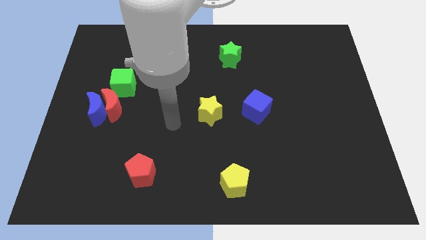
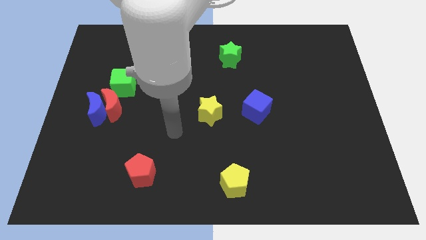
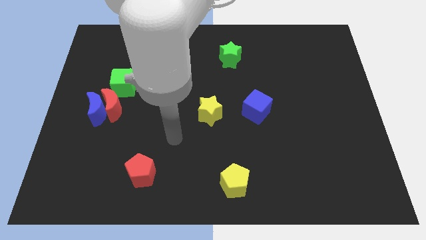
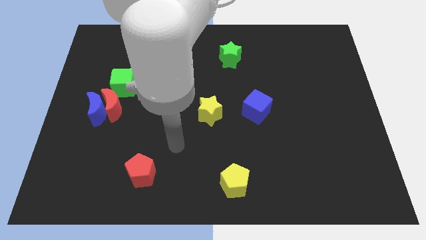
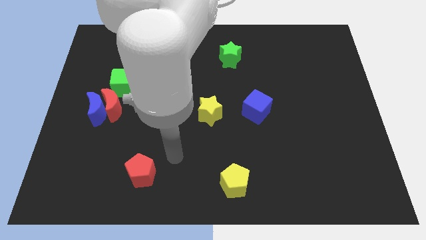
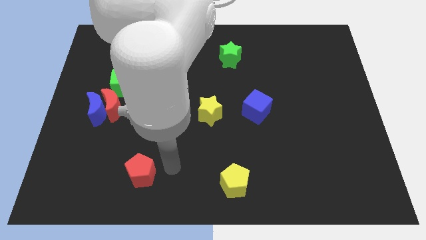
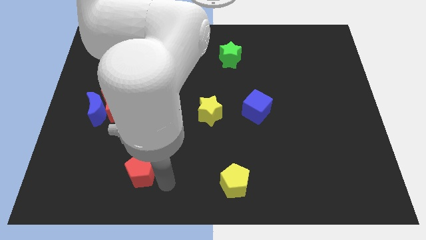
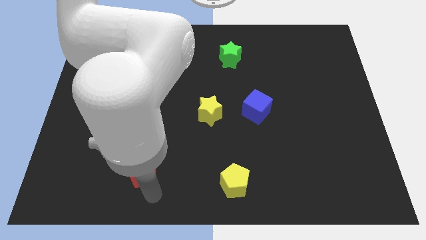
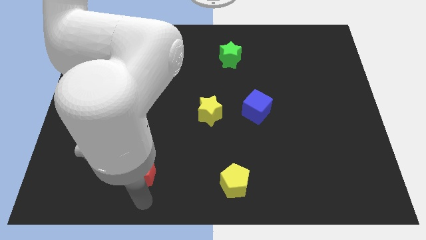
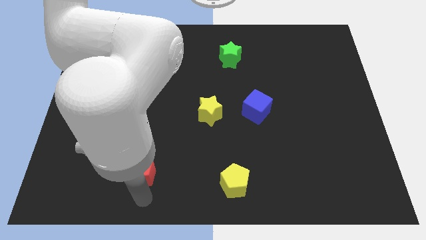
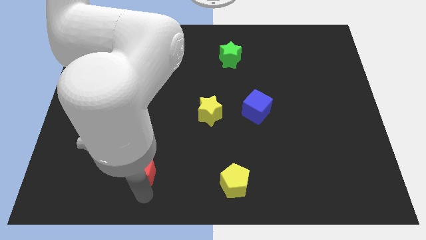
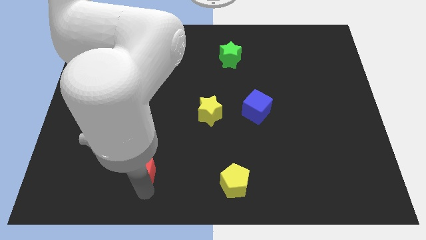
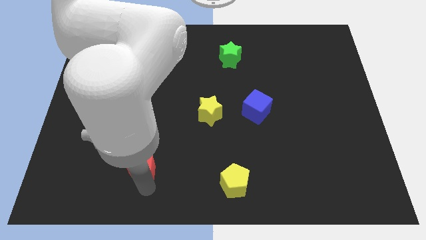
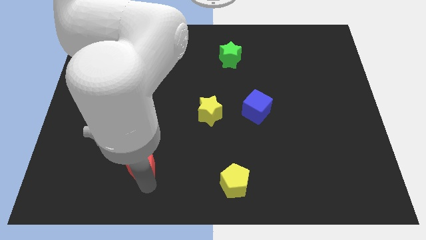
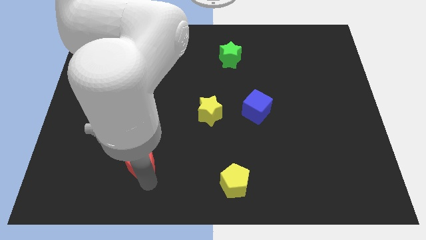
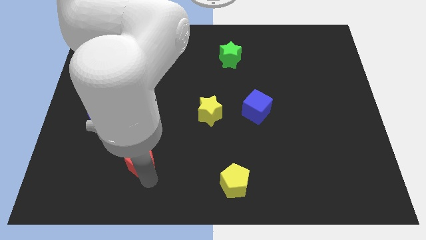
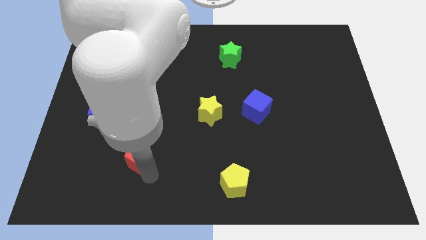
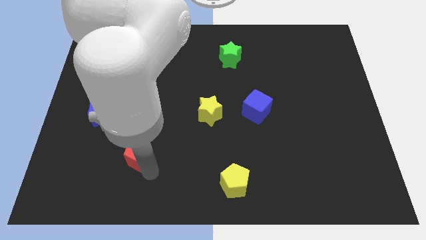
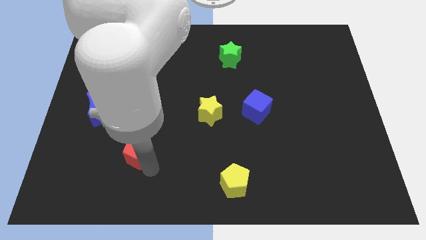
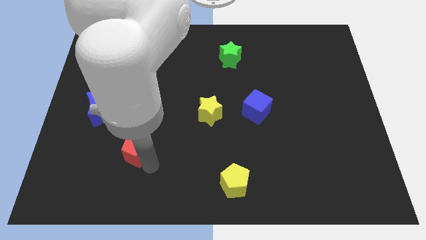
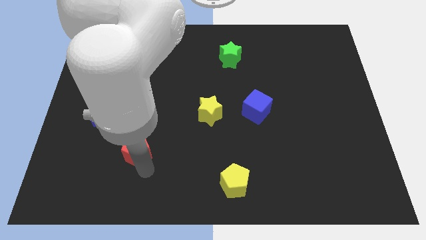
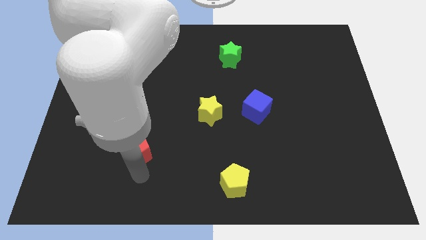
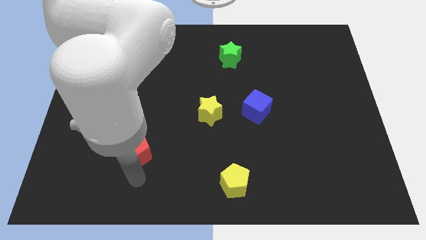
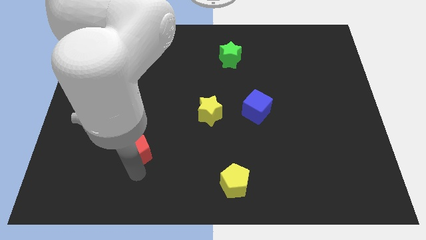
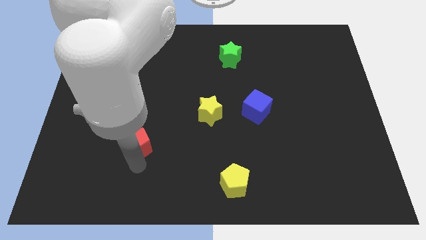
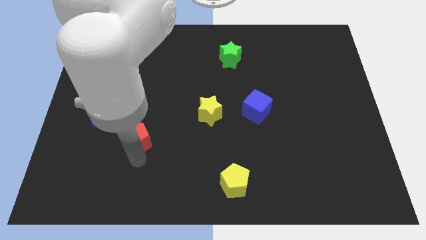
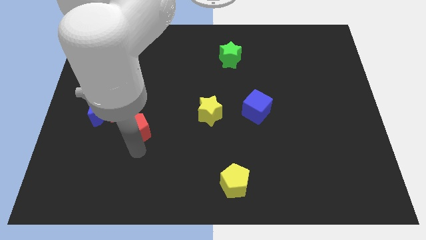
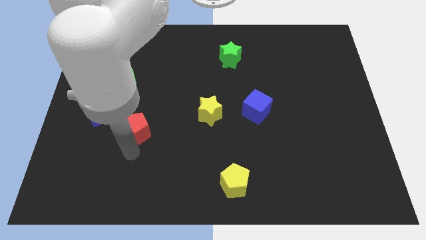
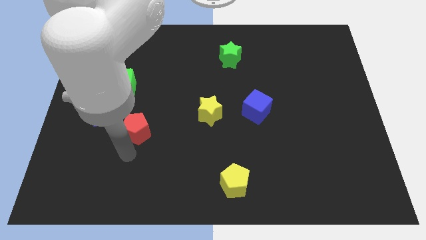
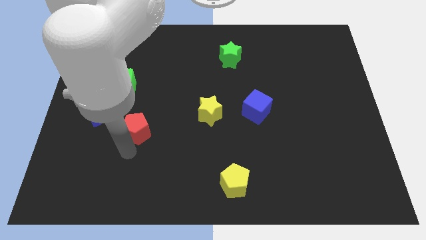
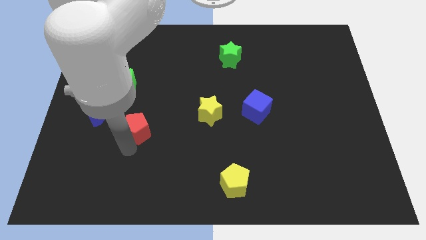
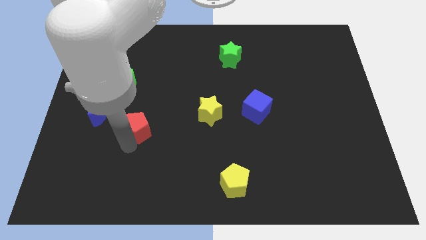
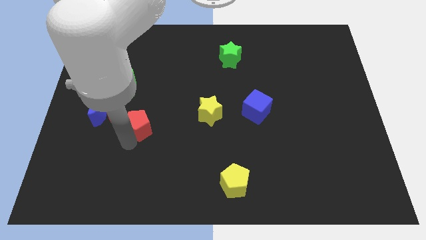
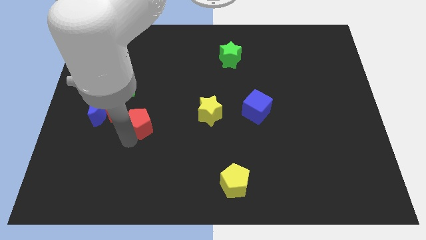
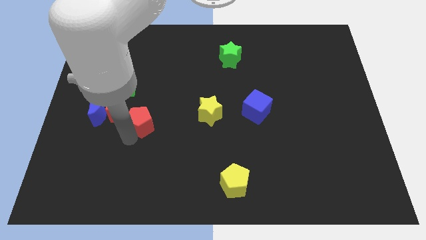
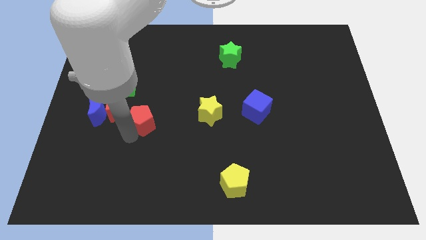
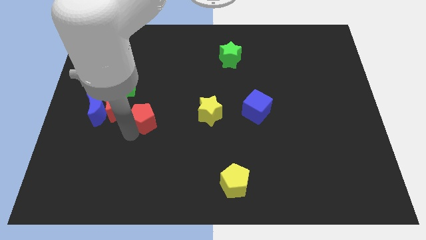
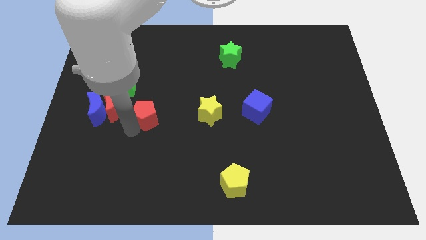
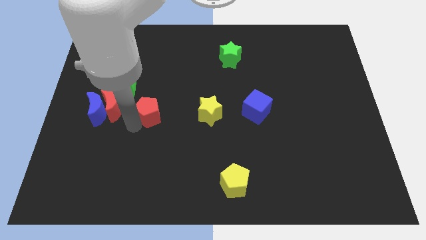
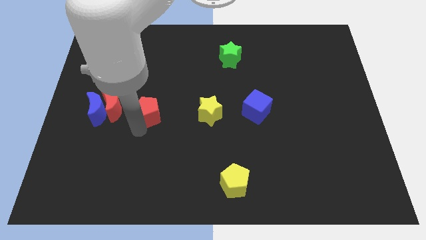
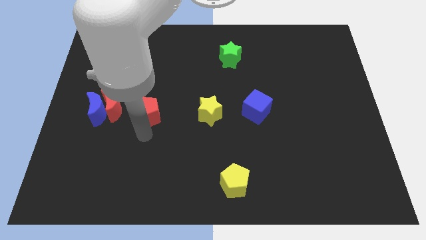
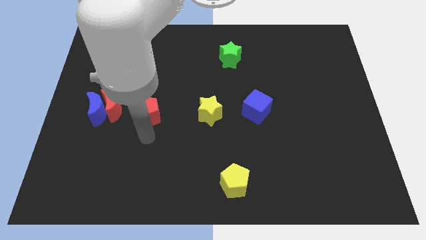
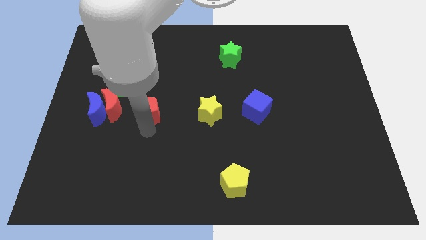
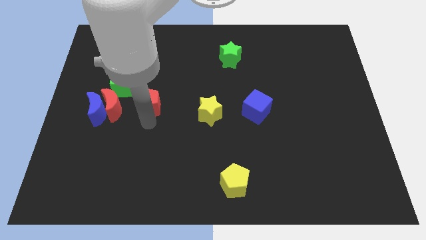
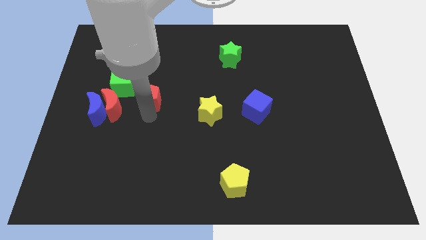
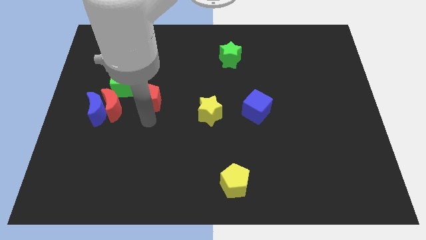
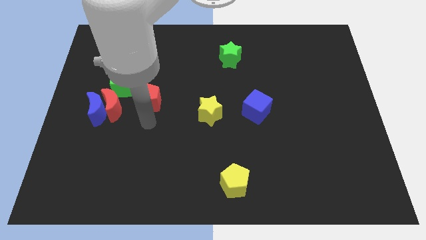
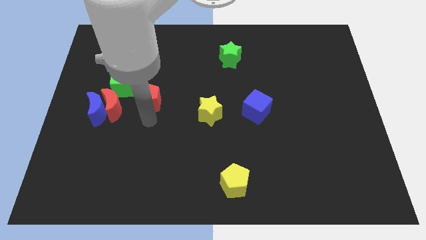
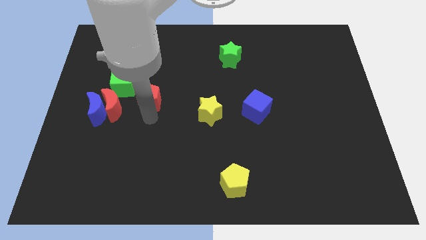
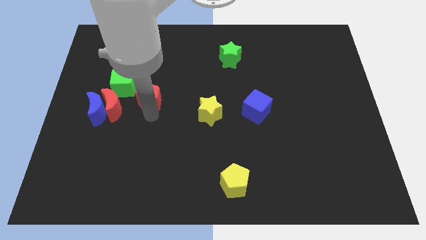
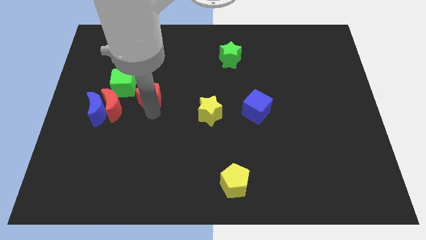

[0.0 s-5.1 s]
move the red pentagon up

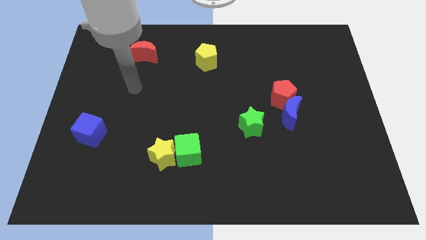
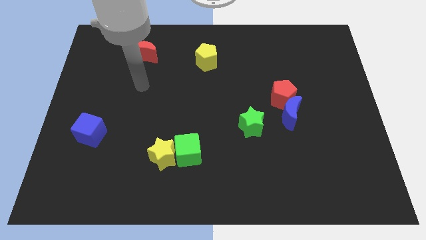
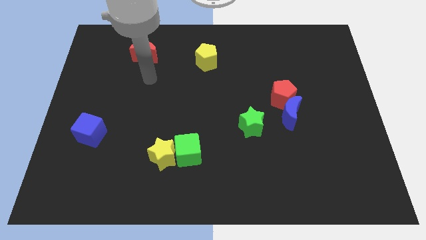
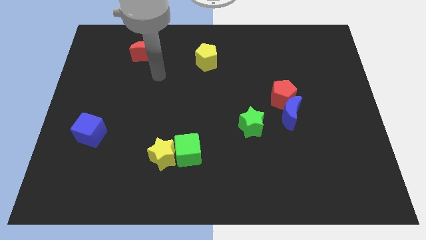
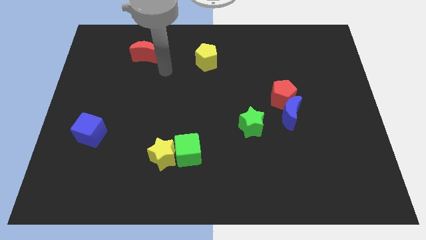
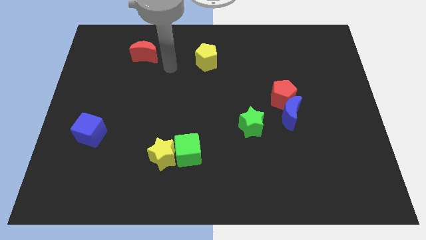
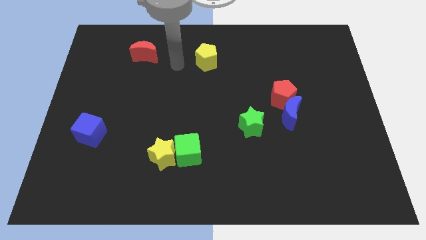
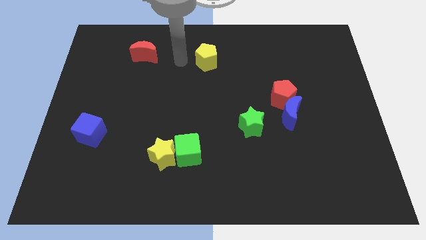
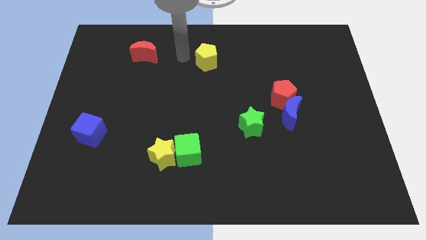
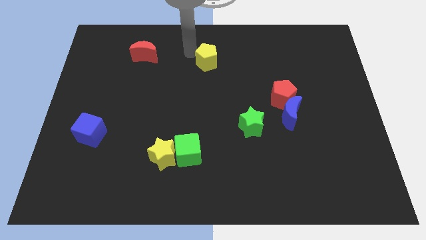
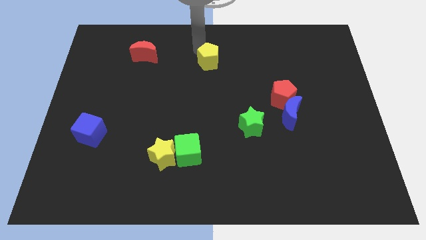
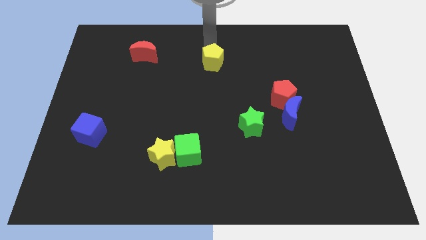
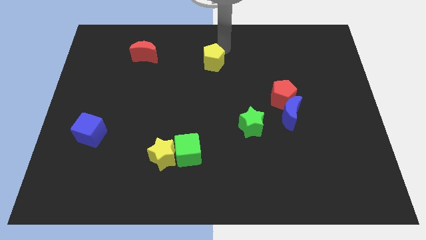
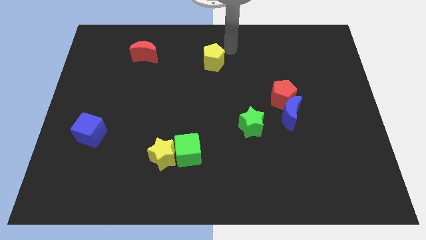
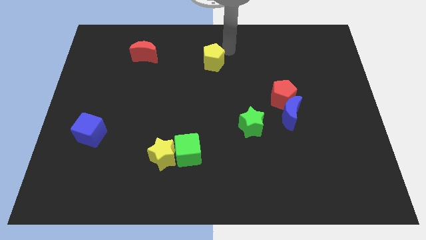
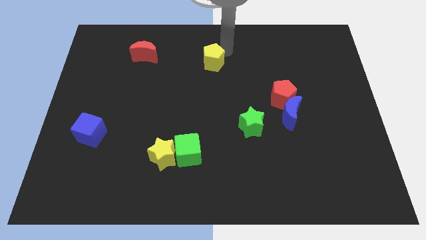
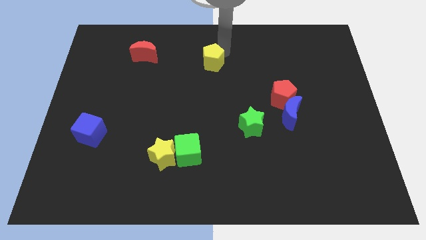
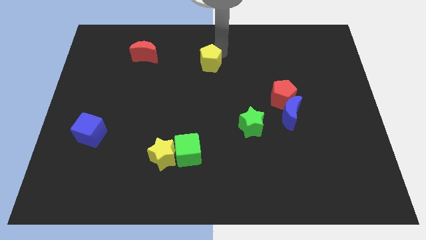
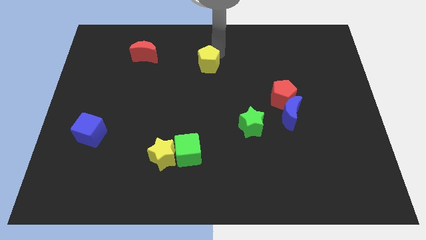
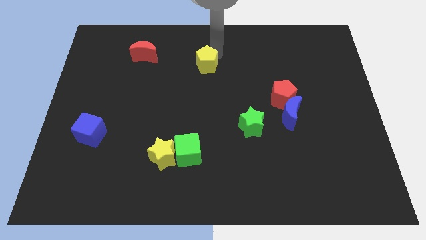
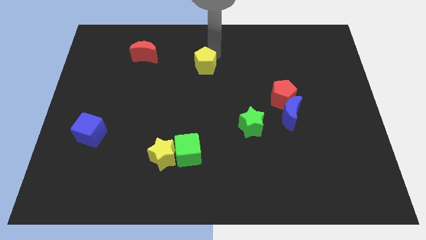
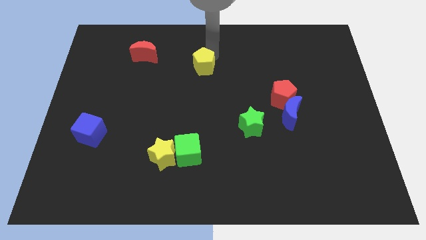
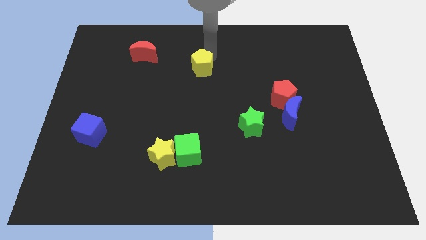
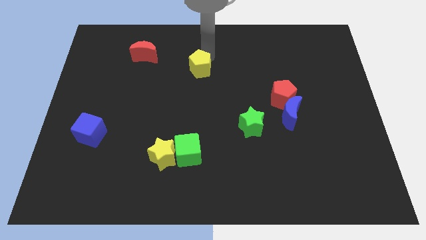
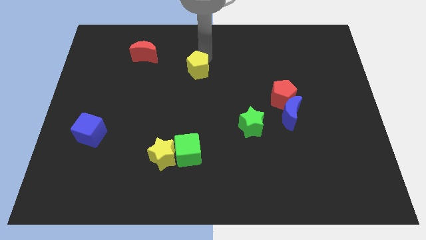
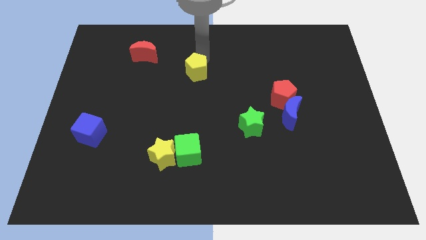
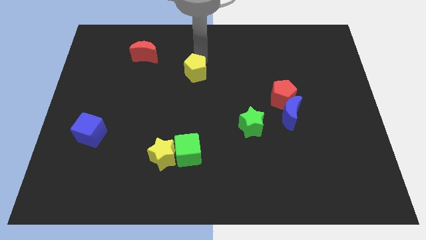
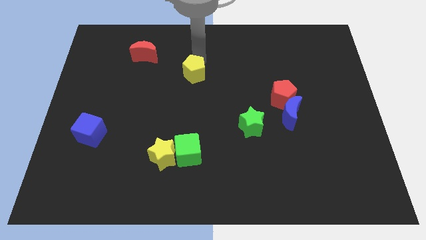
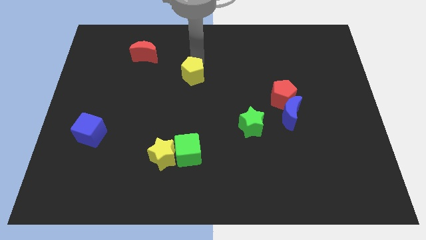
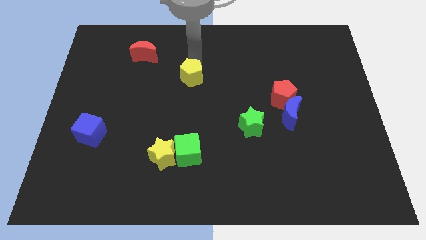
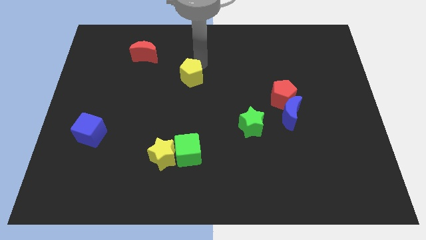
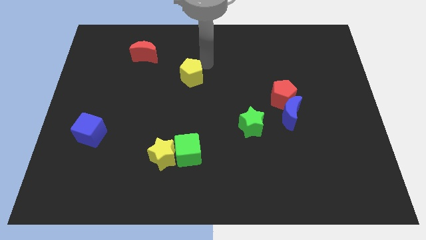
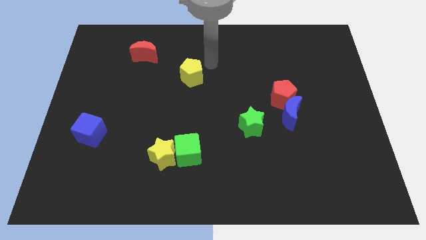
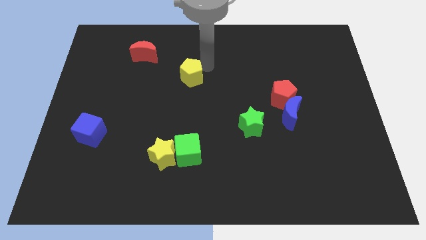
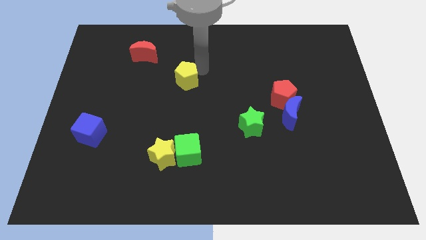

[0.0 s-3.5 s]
push the yellow pentagon somewhat downwards and left diagonally
